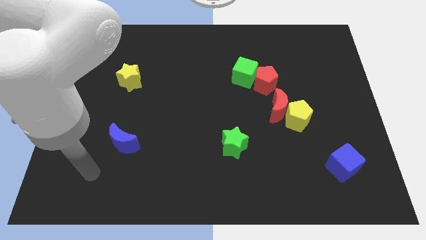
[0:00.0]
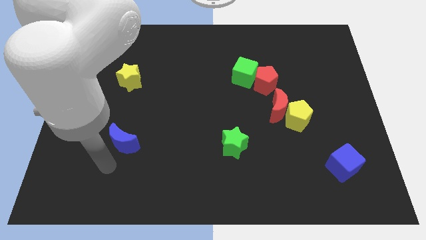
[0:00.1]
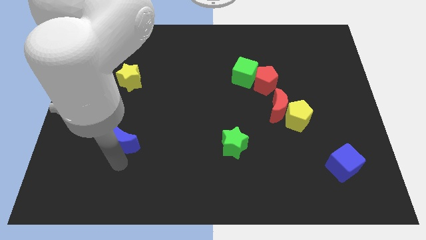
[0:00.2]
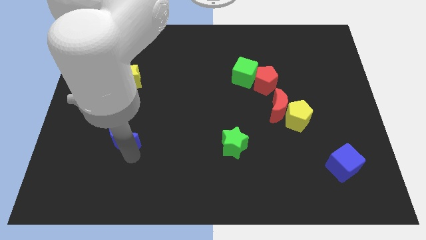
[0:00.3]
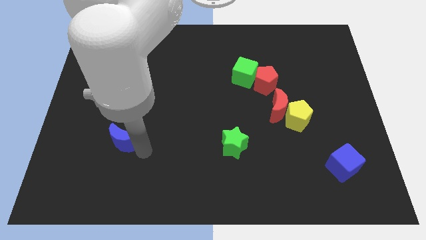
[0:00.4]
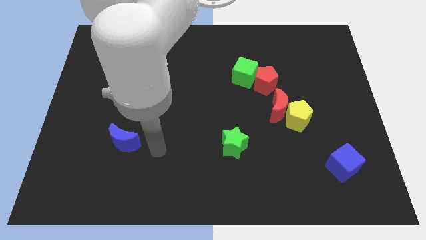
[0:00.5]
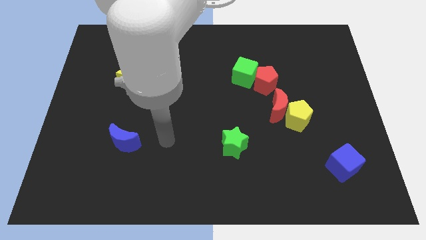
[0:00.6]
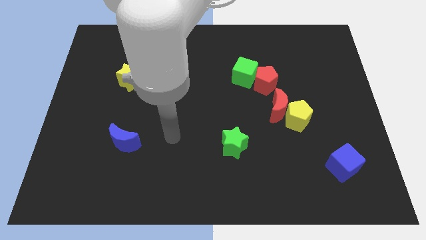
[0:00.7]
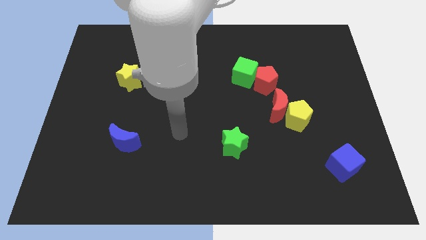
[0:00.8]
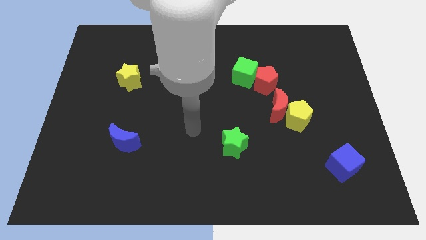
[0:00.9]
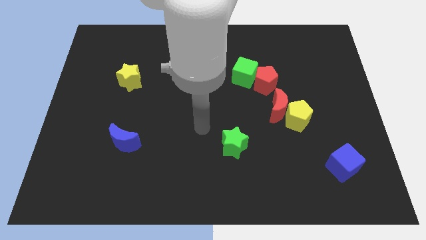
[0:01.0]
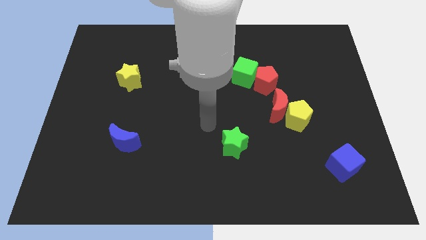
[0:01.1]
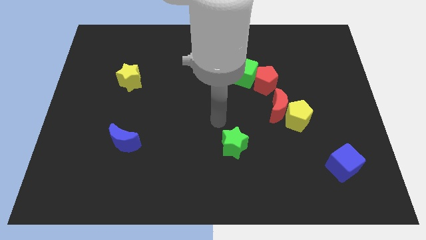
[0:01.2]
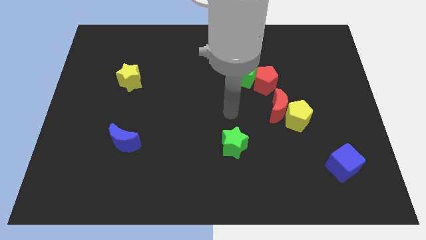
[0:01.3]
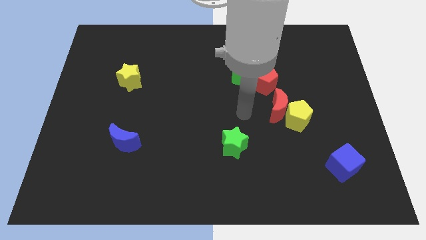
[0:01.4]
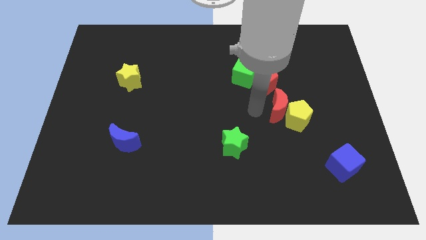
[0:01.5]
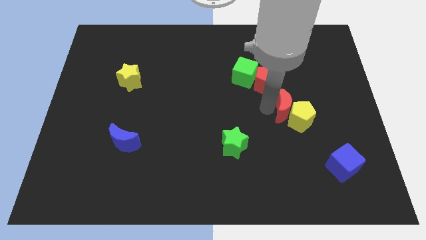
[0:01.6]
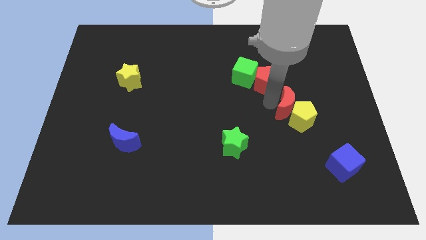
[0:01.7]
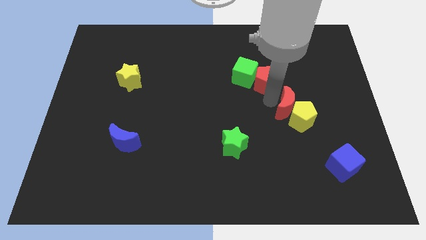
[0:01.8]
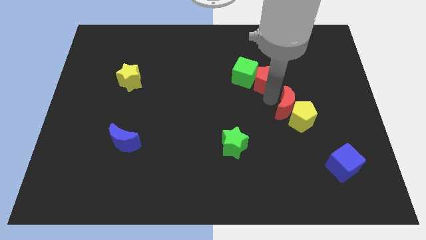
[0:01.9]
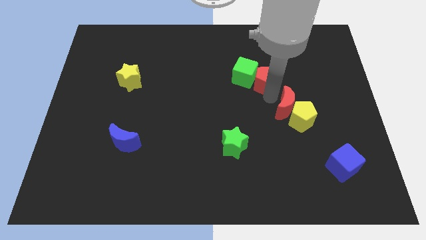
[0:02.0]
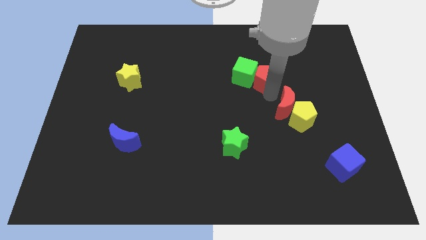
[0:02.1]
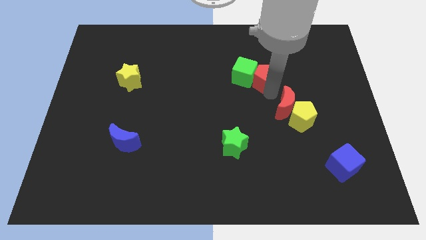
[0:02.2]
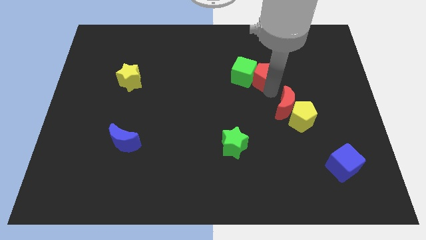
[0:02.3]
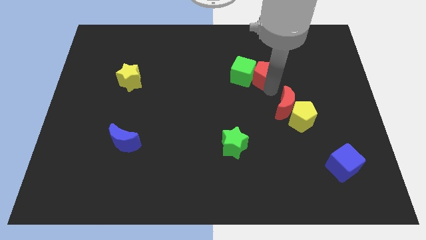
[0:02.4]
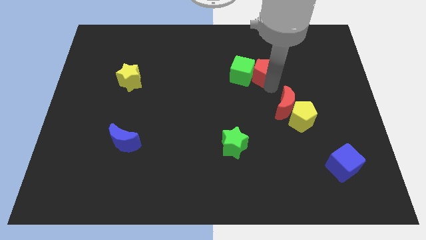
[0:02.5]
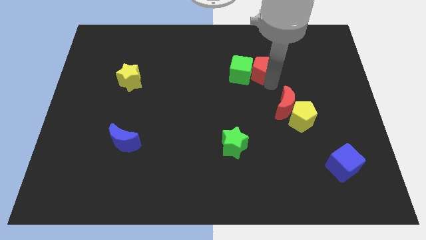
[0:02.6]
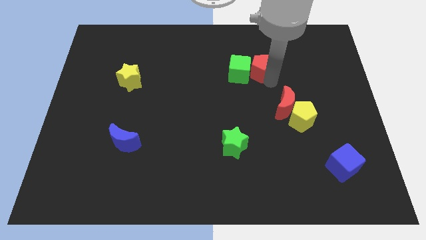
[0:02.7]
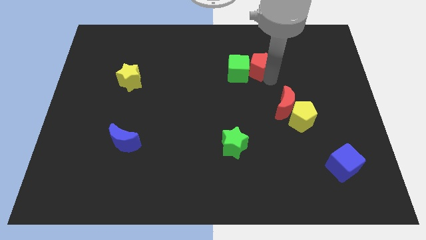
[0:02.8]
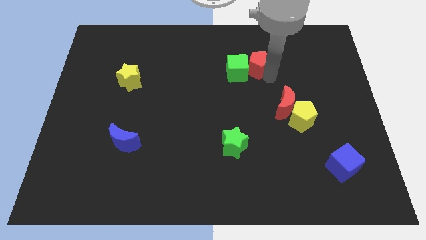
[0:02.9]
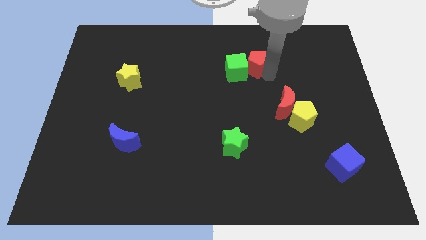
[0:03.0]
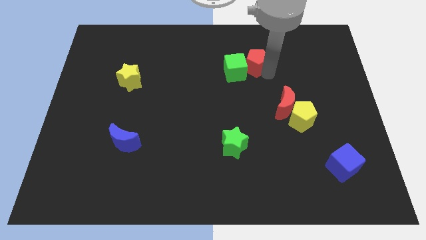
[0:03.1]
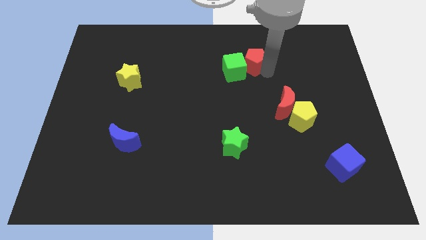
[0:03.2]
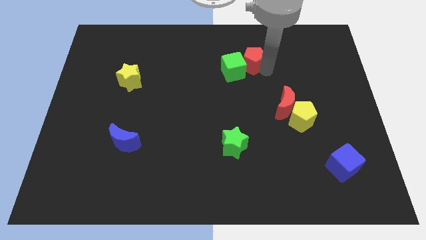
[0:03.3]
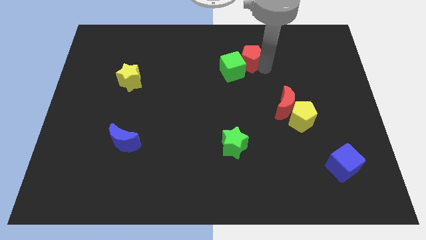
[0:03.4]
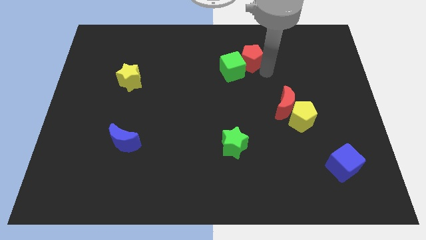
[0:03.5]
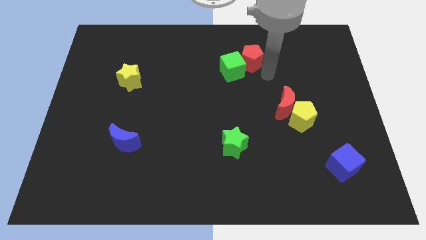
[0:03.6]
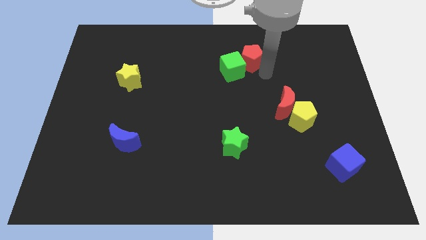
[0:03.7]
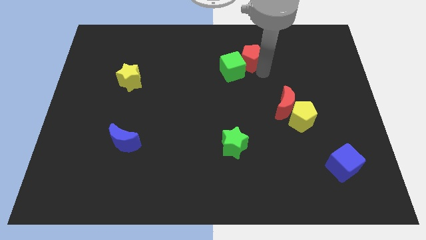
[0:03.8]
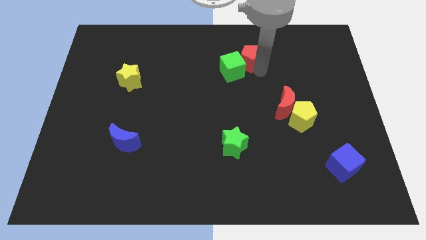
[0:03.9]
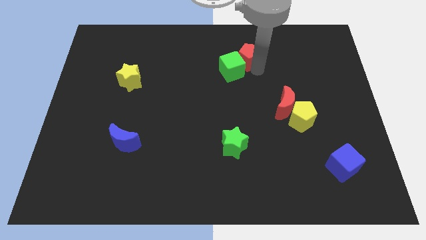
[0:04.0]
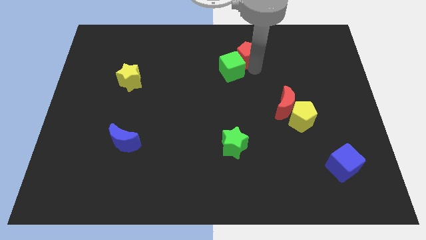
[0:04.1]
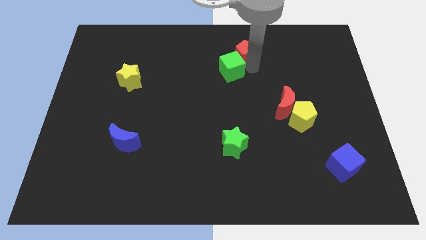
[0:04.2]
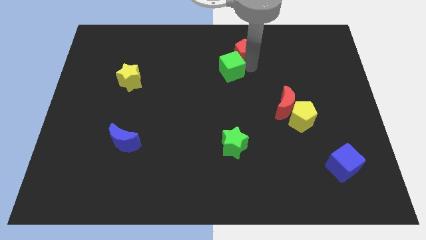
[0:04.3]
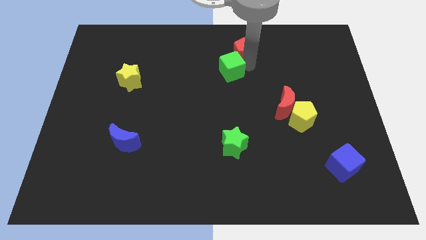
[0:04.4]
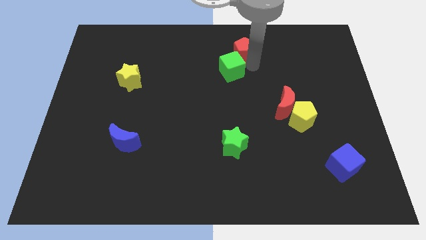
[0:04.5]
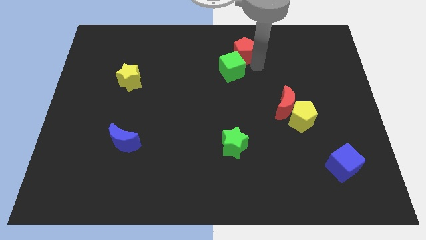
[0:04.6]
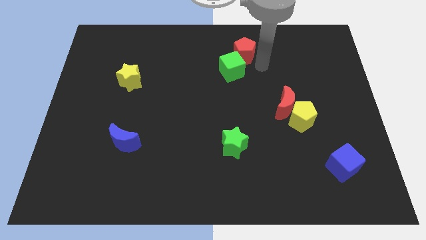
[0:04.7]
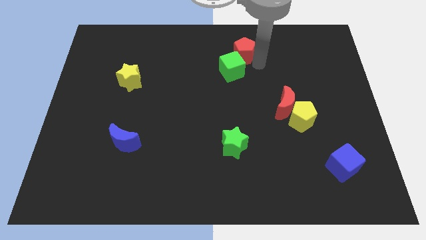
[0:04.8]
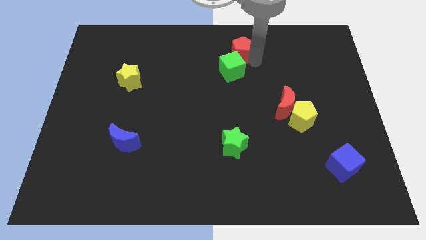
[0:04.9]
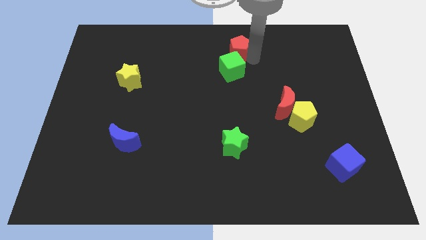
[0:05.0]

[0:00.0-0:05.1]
move the red pentagon to the top
